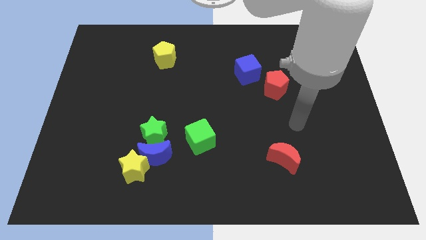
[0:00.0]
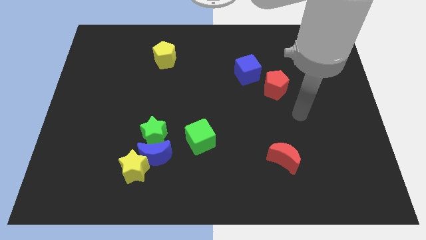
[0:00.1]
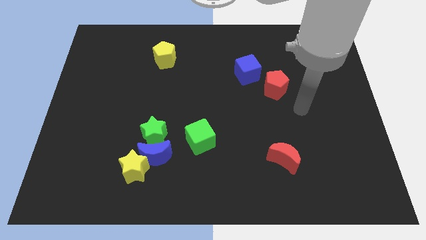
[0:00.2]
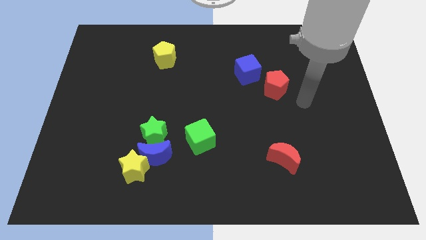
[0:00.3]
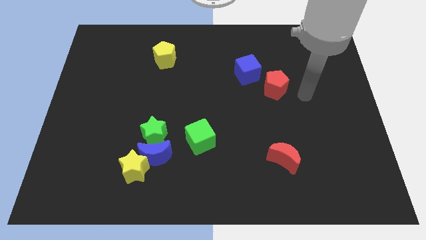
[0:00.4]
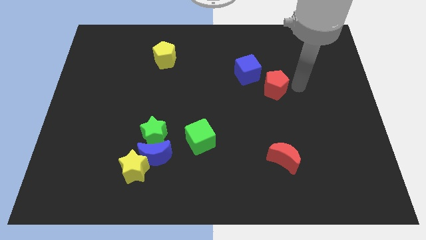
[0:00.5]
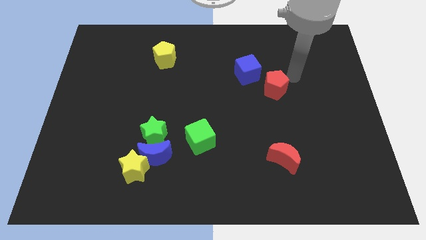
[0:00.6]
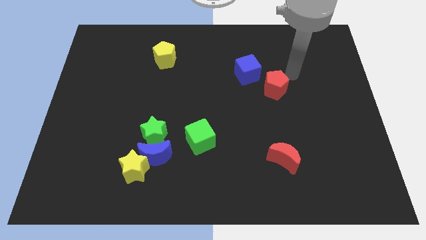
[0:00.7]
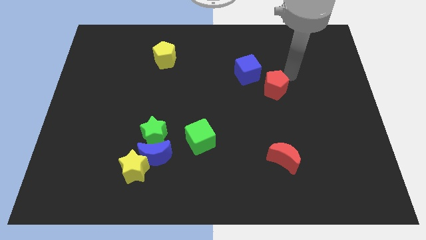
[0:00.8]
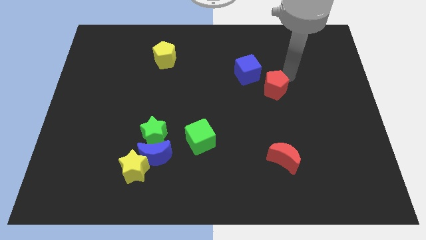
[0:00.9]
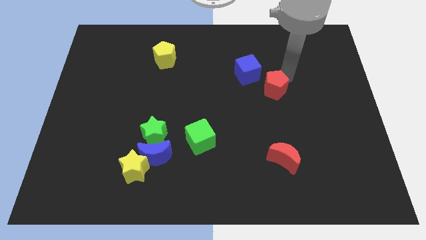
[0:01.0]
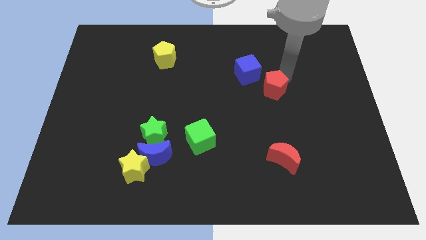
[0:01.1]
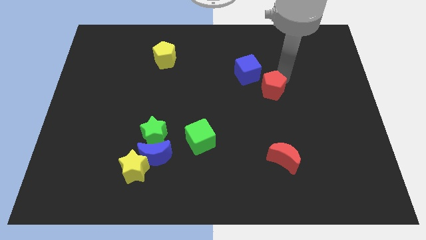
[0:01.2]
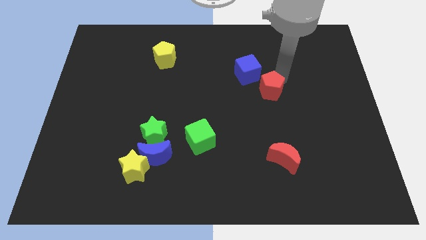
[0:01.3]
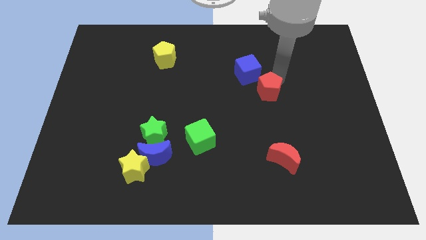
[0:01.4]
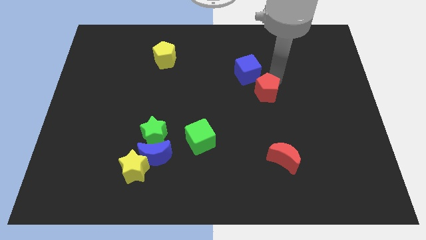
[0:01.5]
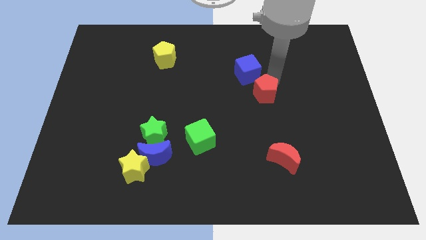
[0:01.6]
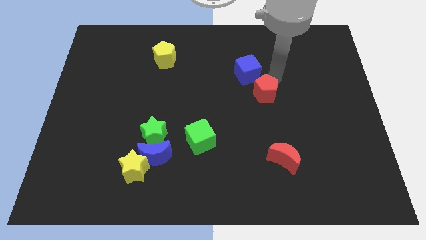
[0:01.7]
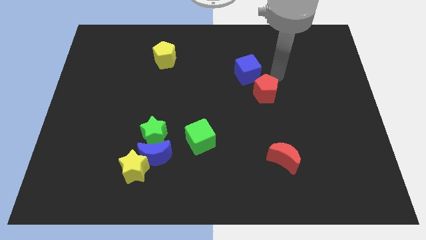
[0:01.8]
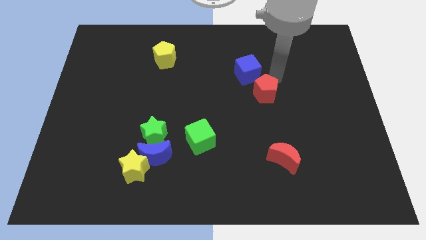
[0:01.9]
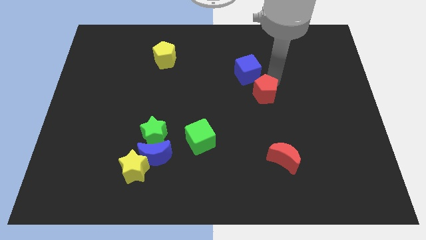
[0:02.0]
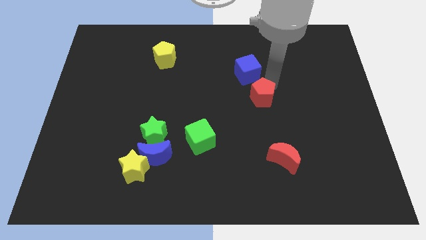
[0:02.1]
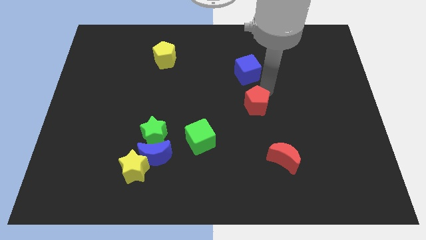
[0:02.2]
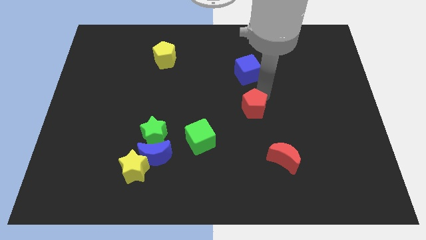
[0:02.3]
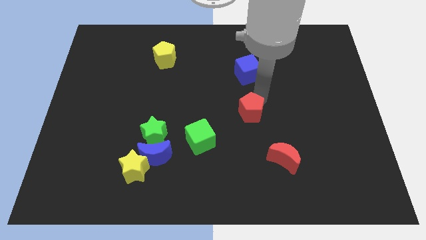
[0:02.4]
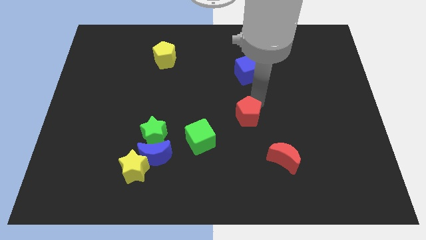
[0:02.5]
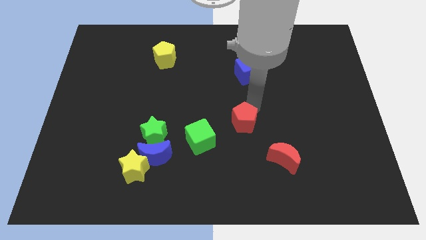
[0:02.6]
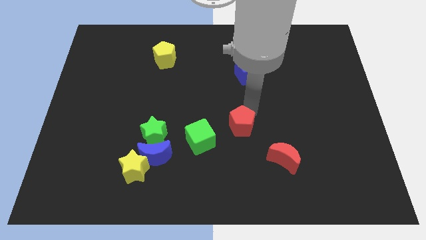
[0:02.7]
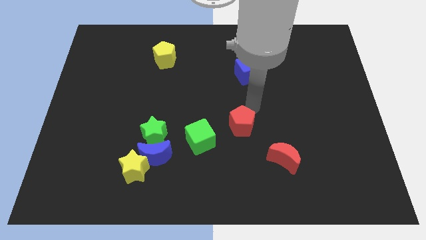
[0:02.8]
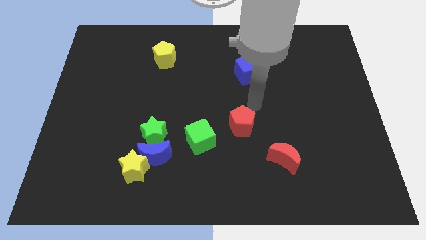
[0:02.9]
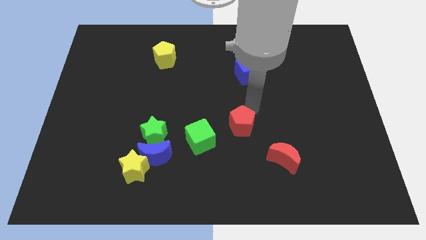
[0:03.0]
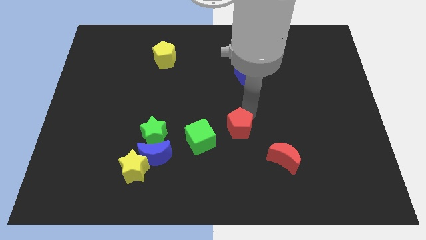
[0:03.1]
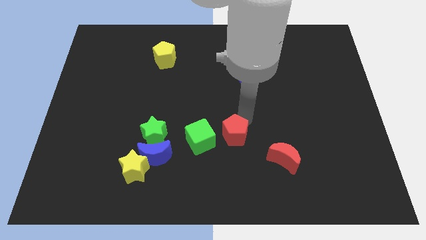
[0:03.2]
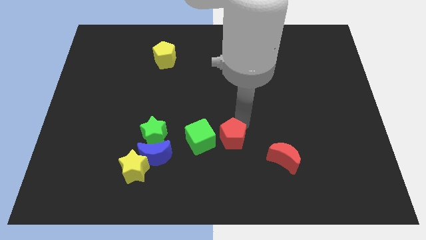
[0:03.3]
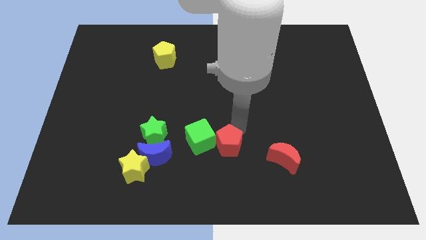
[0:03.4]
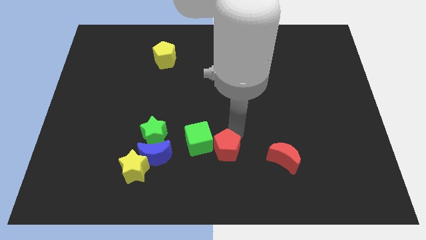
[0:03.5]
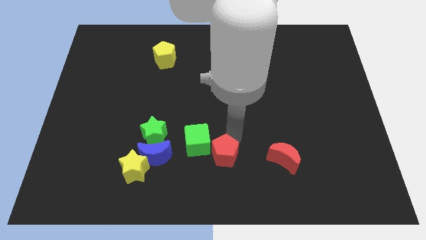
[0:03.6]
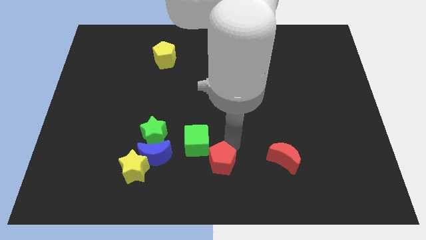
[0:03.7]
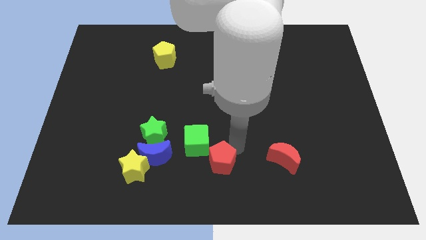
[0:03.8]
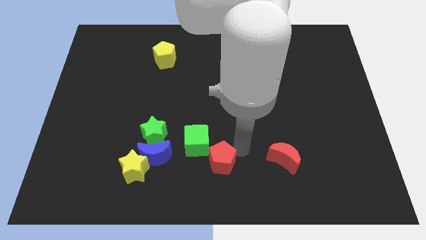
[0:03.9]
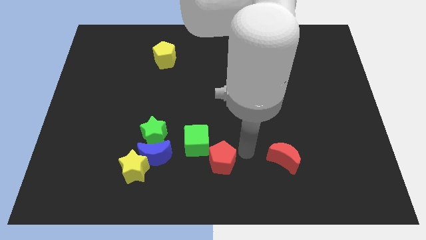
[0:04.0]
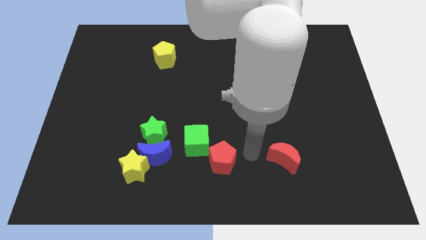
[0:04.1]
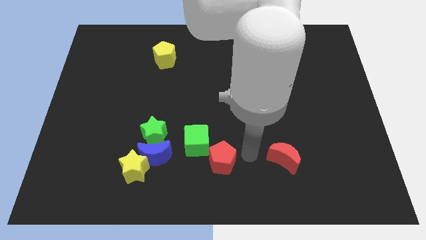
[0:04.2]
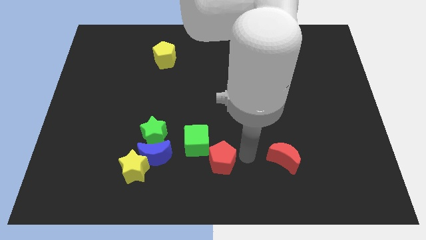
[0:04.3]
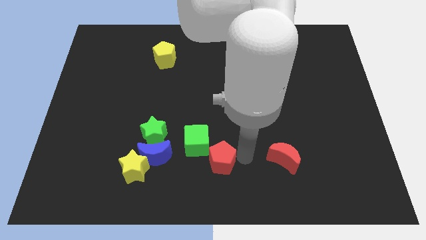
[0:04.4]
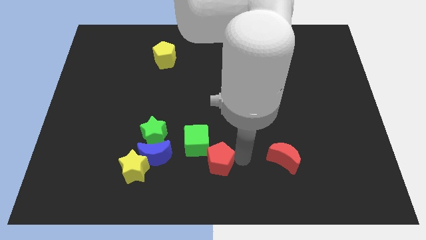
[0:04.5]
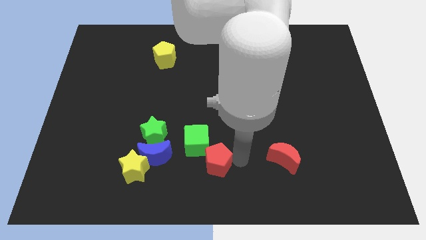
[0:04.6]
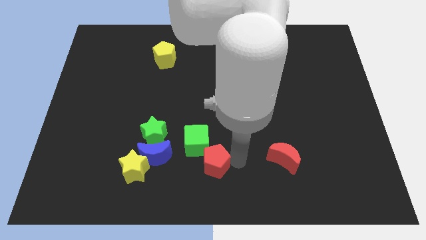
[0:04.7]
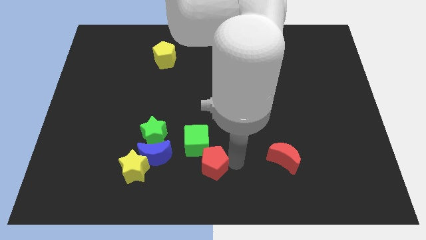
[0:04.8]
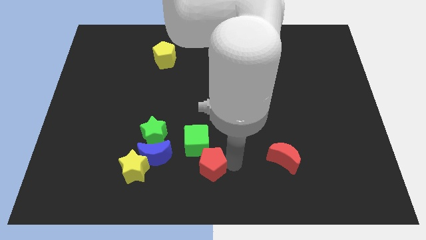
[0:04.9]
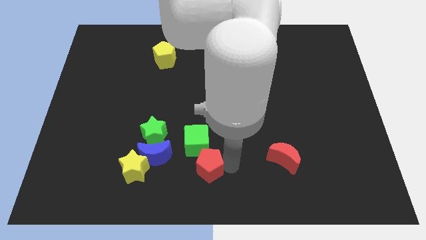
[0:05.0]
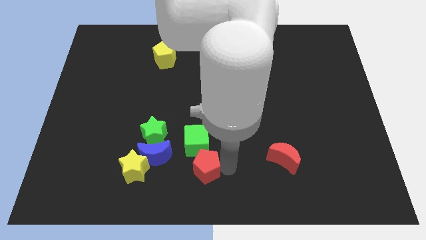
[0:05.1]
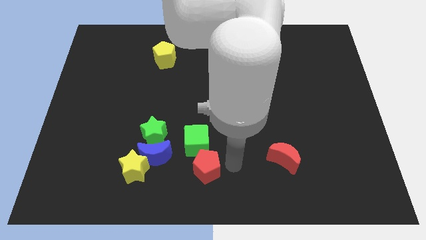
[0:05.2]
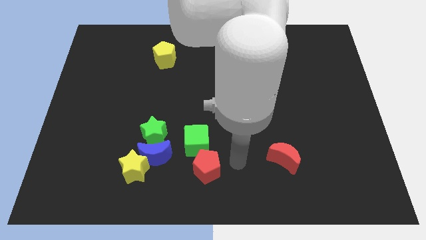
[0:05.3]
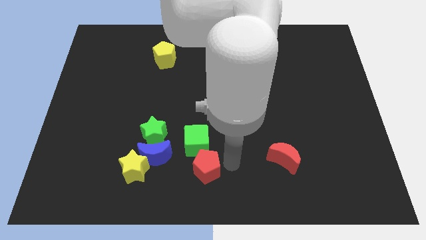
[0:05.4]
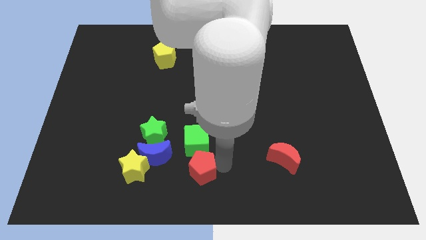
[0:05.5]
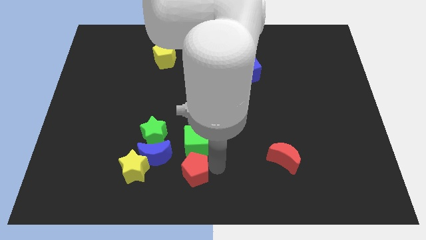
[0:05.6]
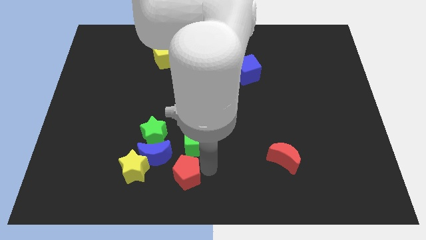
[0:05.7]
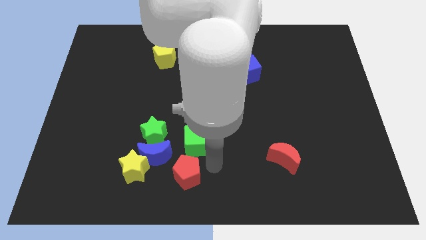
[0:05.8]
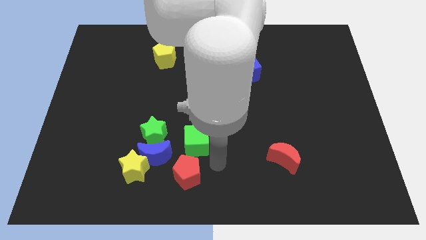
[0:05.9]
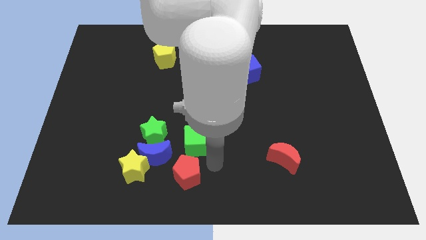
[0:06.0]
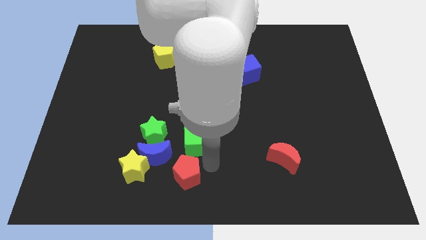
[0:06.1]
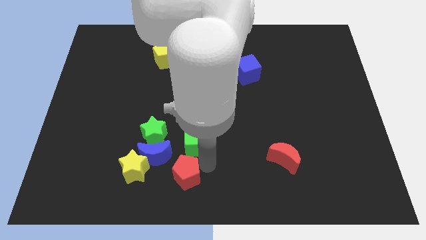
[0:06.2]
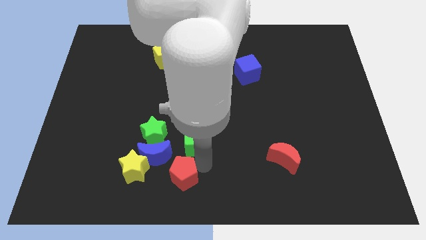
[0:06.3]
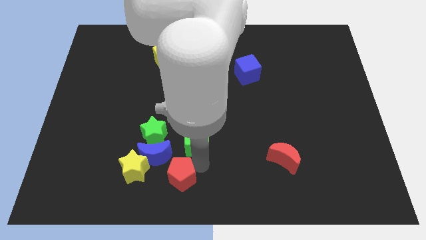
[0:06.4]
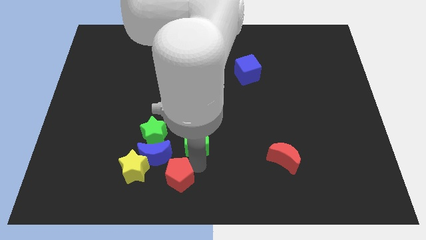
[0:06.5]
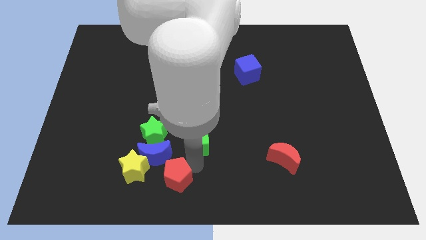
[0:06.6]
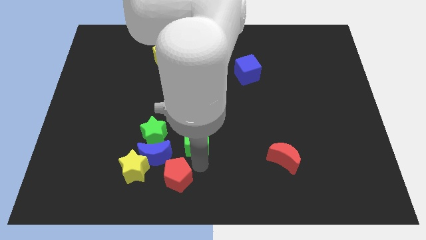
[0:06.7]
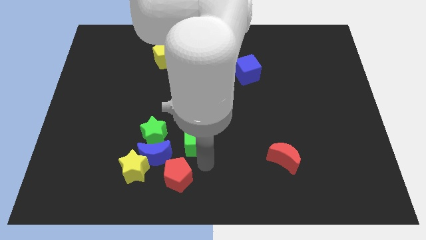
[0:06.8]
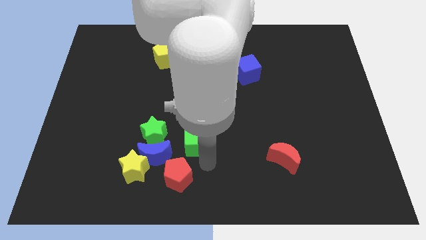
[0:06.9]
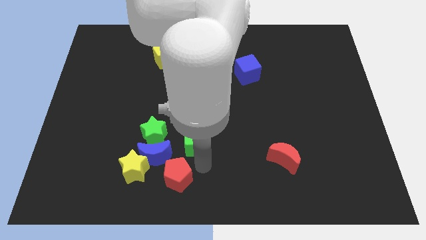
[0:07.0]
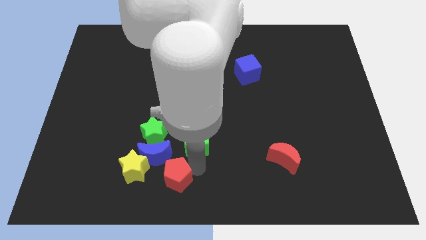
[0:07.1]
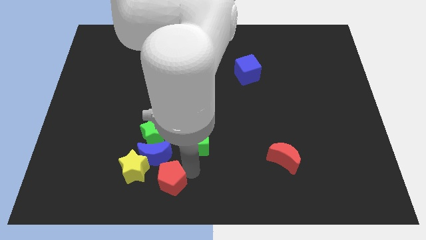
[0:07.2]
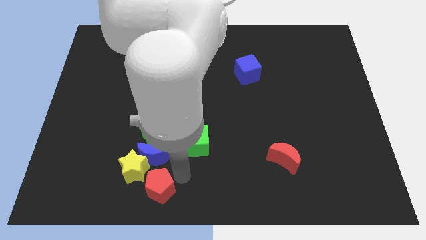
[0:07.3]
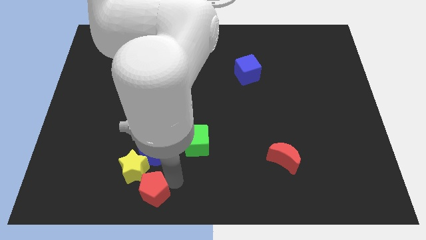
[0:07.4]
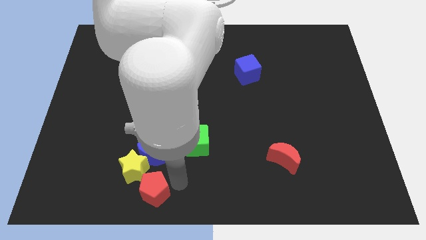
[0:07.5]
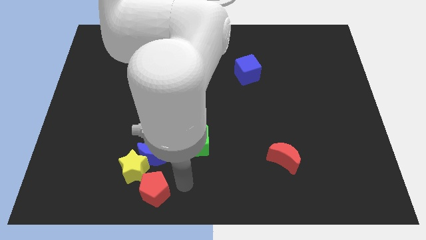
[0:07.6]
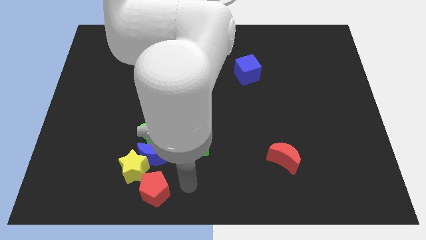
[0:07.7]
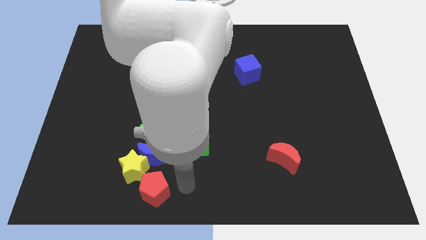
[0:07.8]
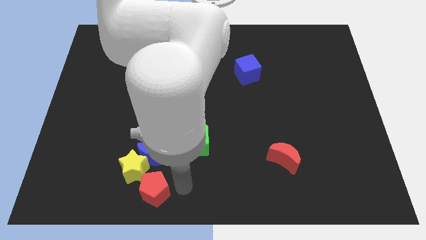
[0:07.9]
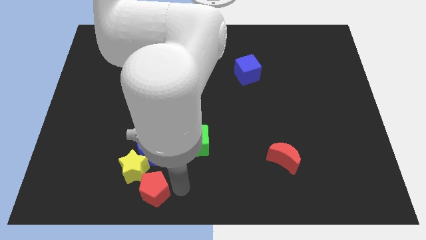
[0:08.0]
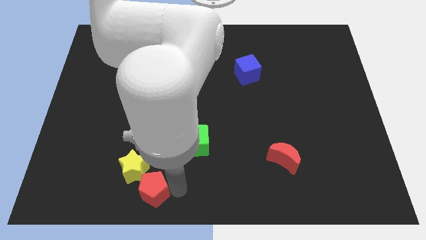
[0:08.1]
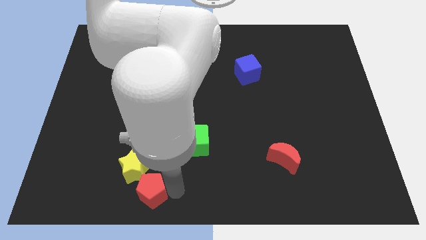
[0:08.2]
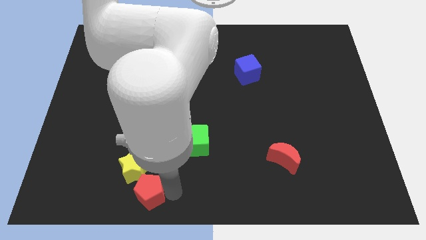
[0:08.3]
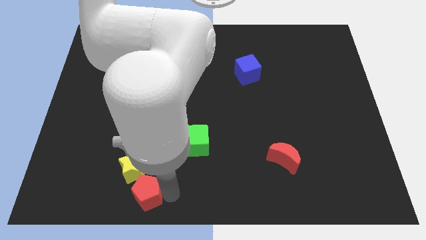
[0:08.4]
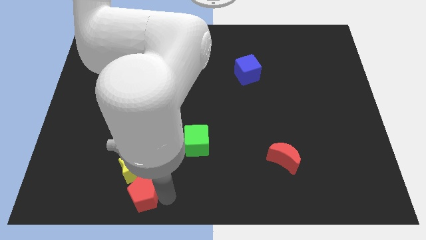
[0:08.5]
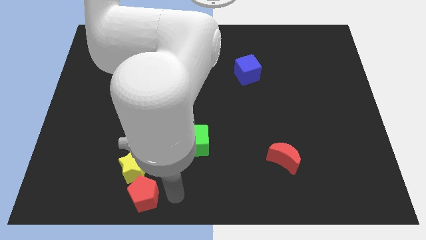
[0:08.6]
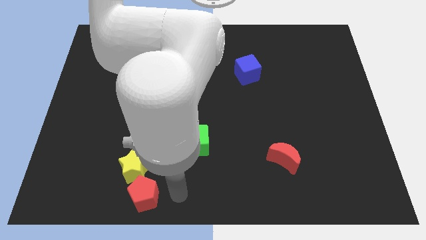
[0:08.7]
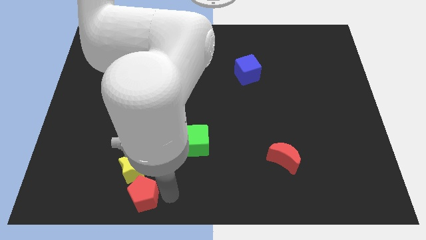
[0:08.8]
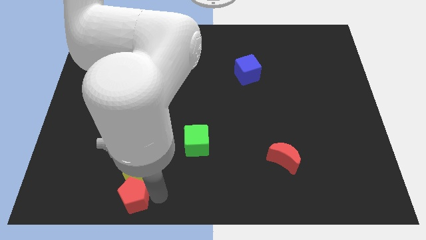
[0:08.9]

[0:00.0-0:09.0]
push the red pentagon to the bottom left side of the blue moon
